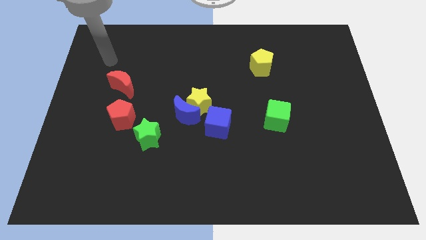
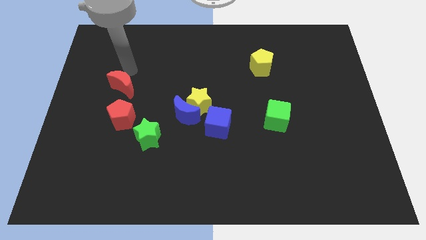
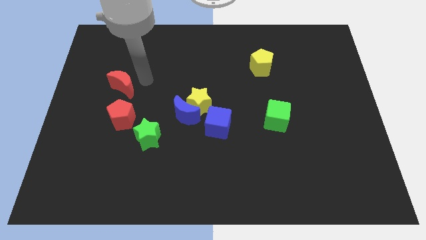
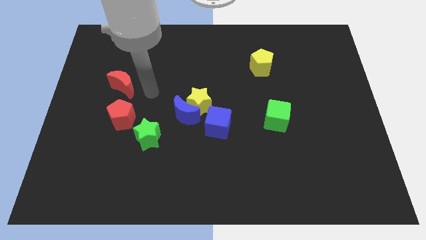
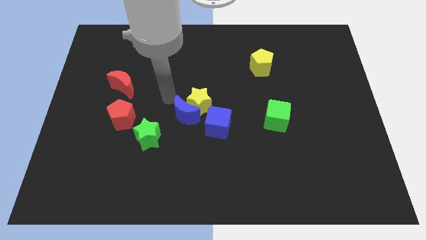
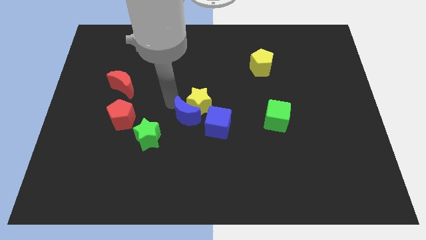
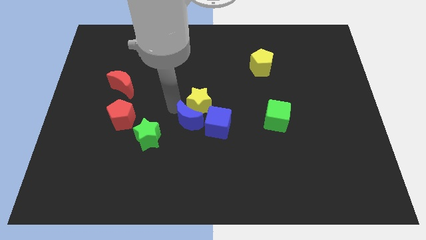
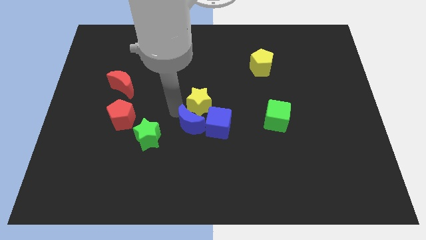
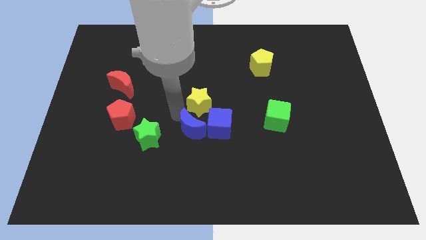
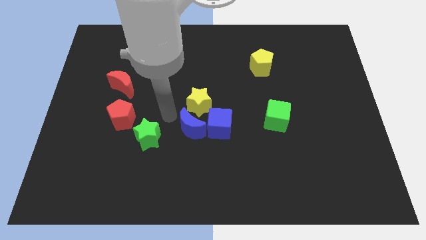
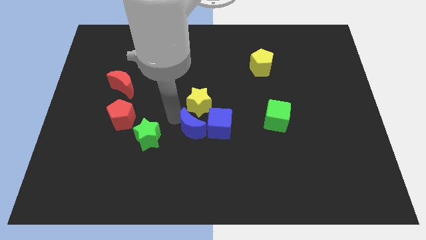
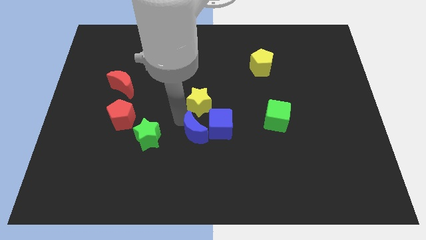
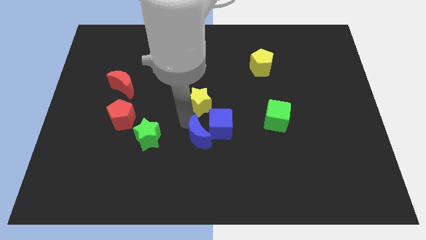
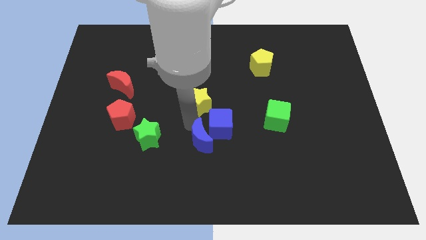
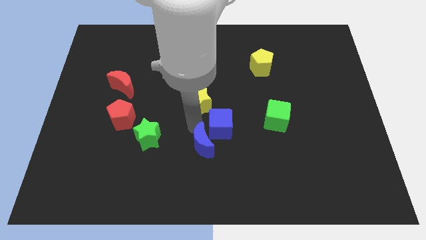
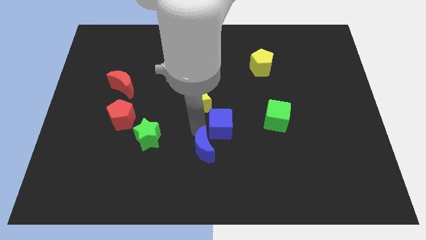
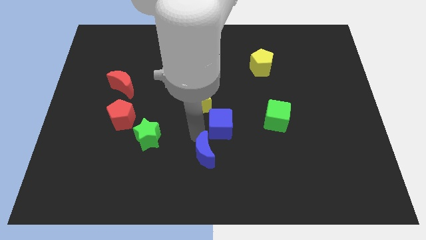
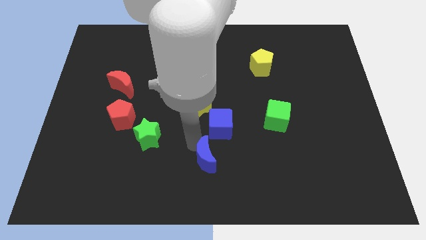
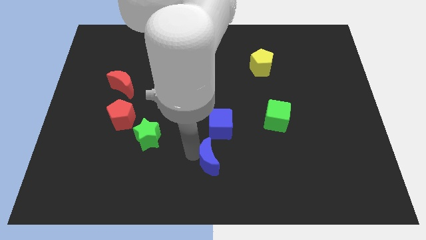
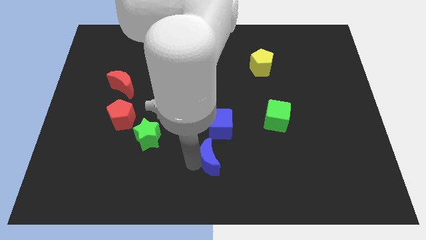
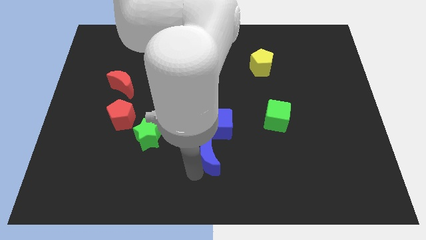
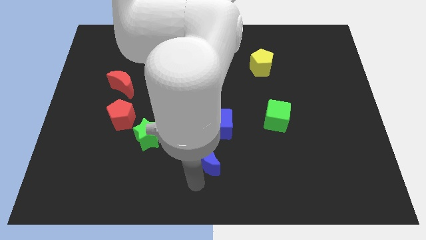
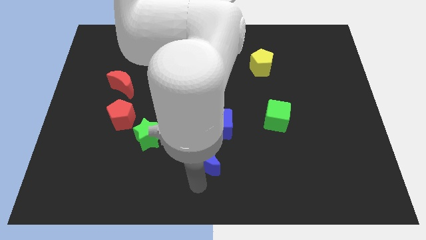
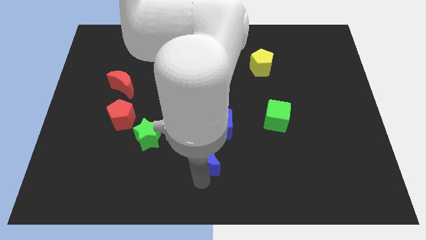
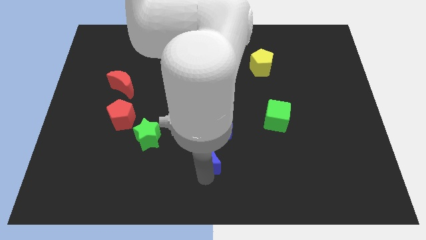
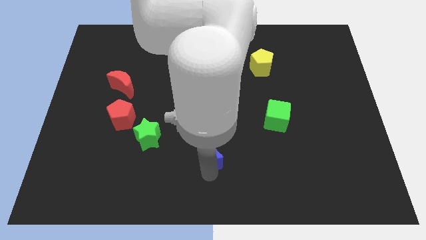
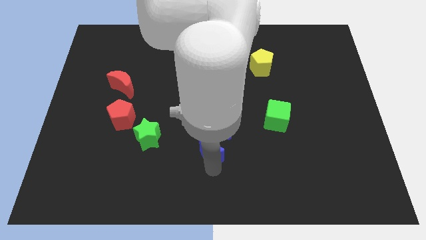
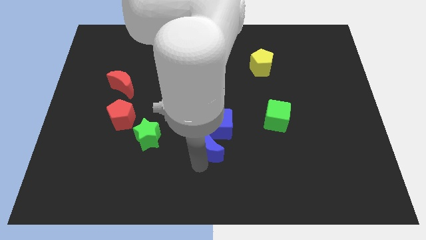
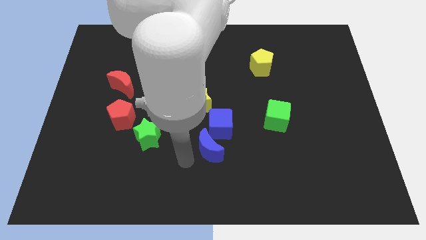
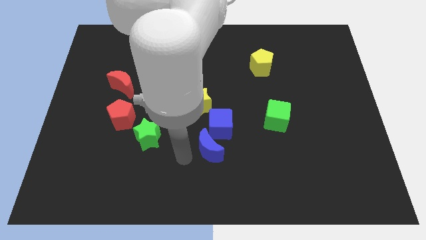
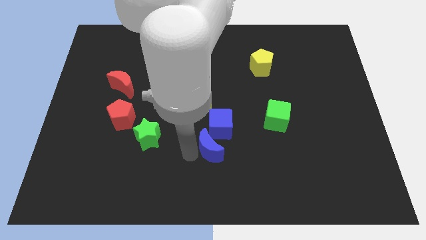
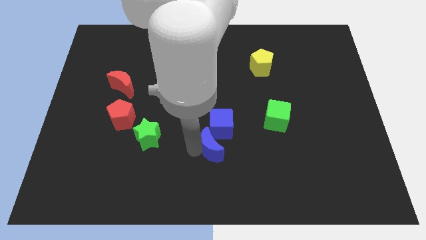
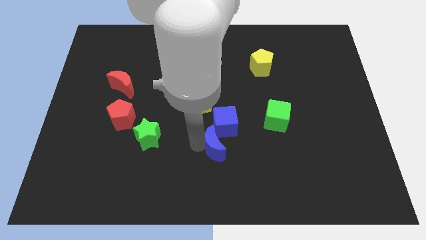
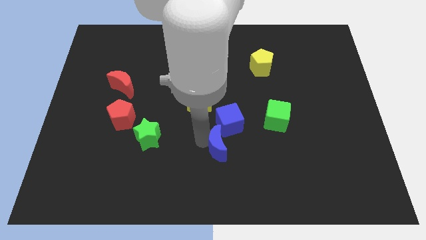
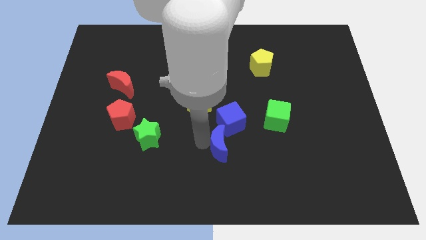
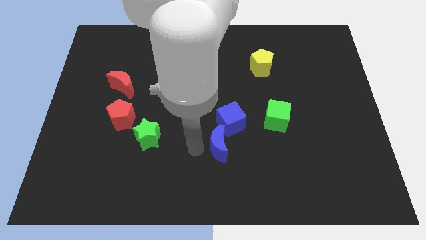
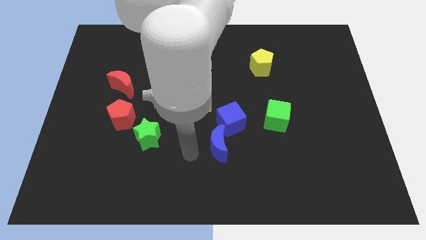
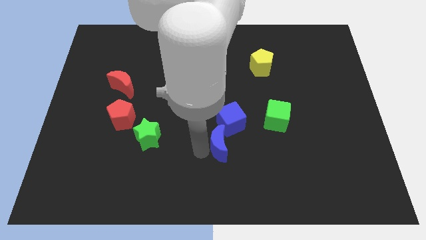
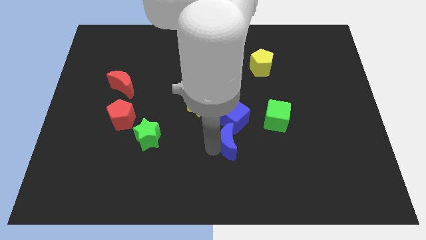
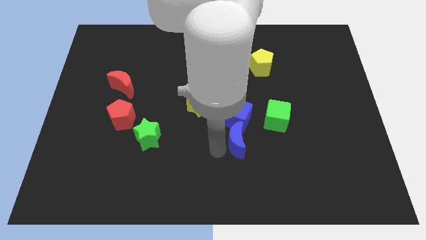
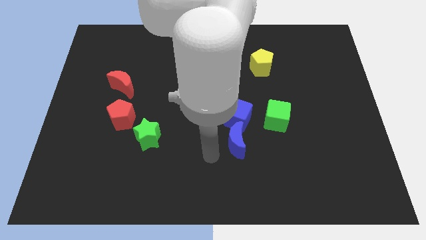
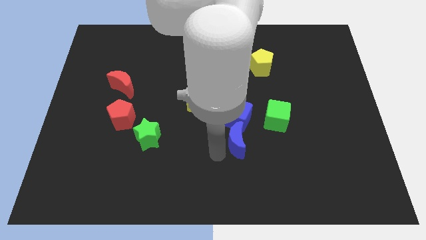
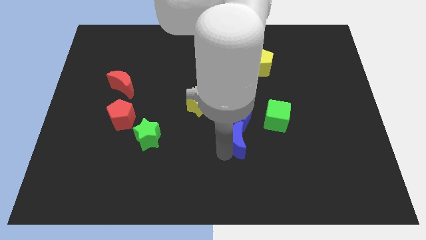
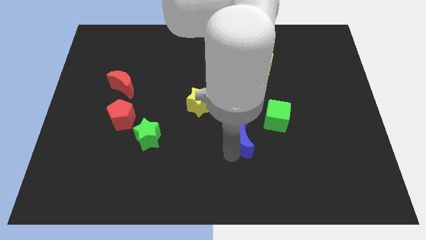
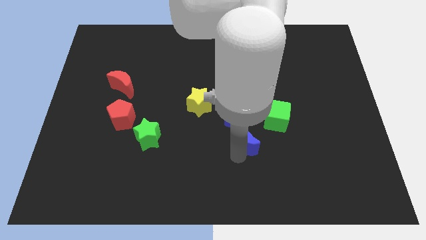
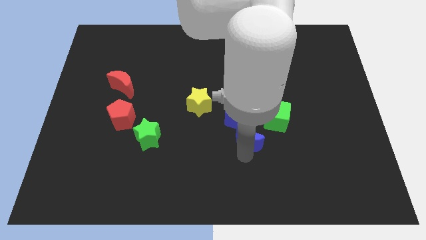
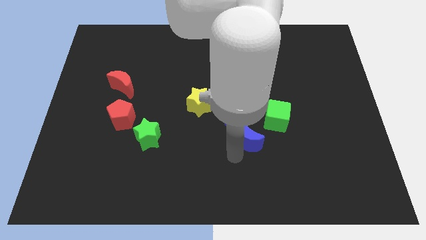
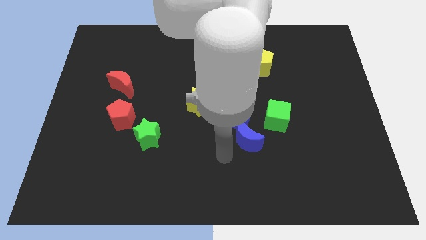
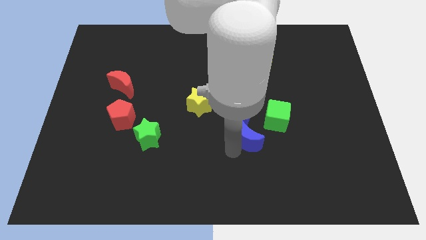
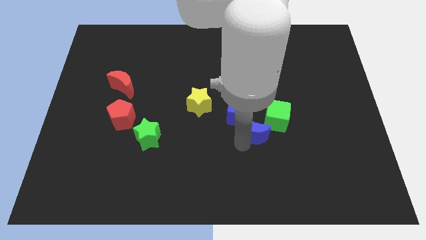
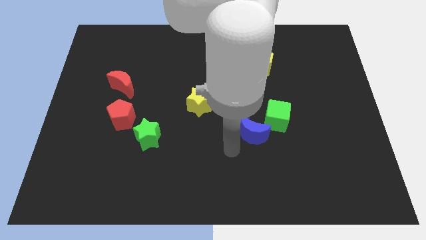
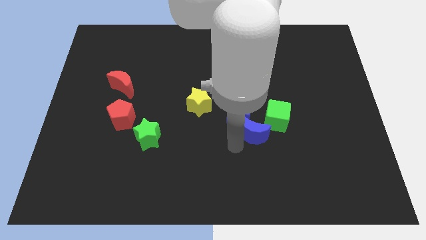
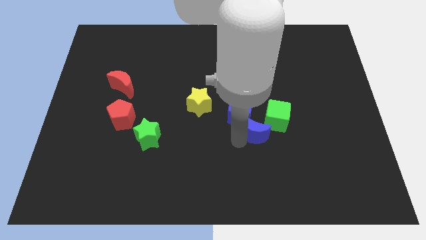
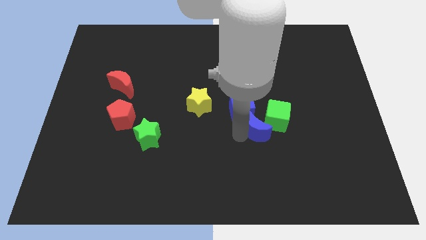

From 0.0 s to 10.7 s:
put the blue moon next to the green cube

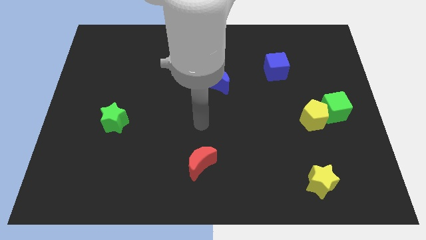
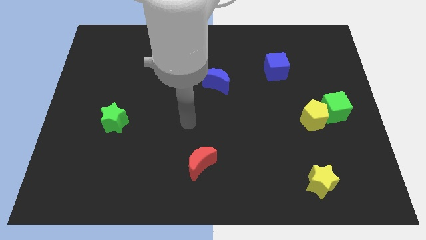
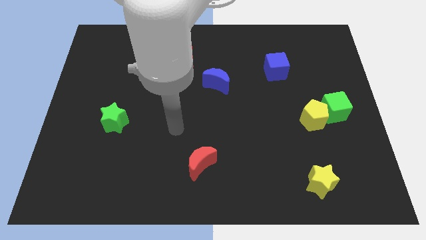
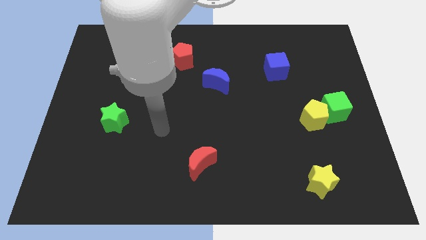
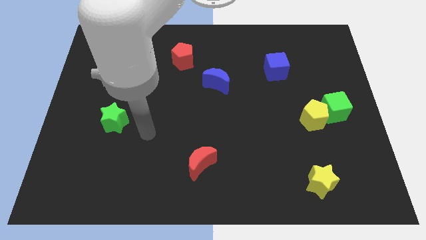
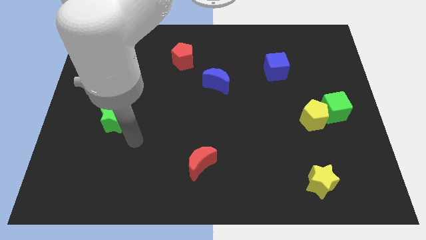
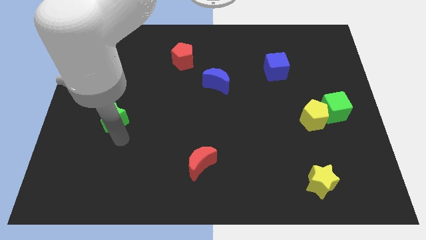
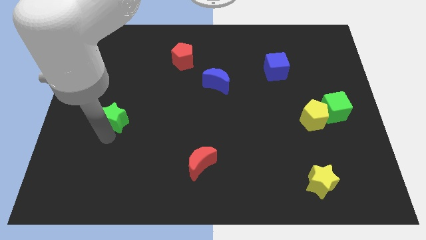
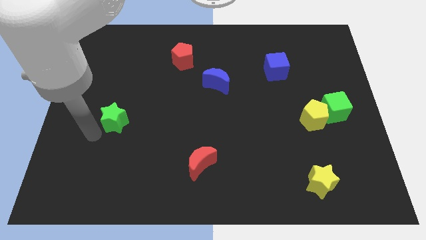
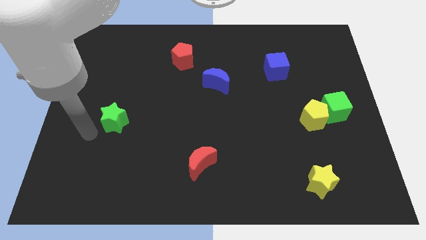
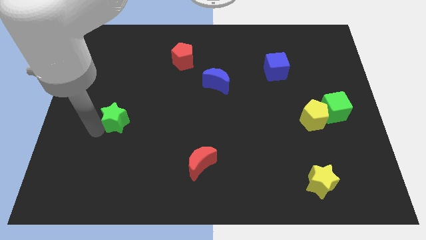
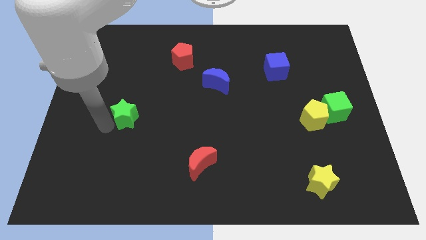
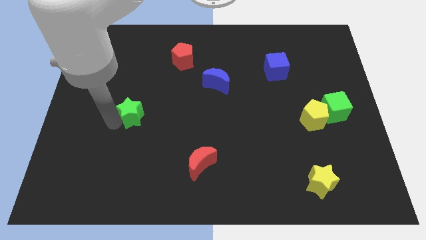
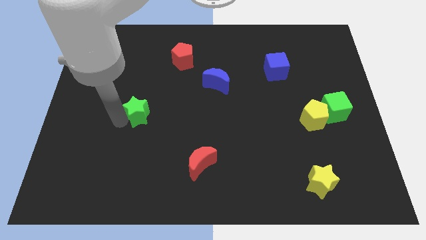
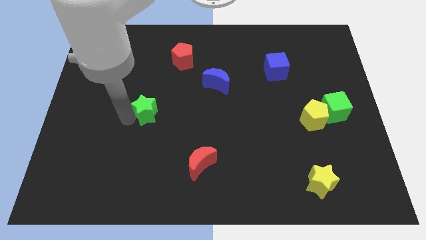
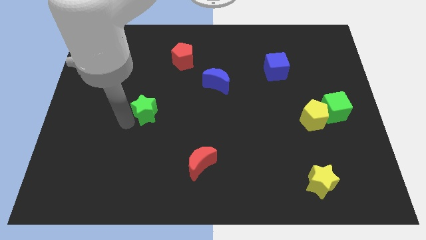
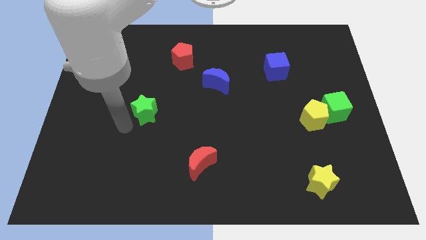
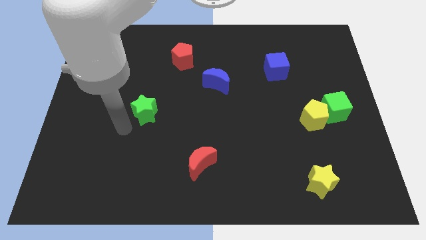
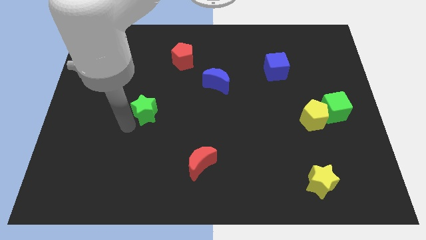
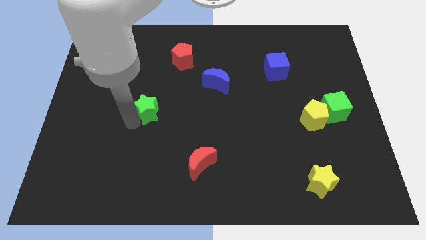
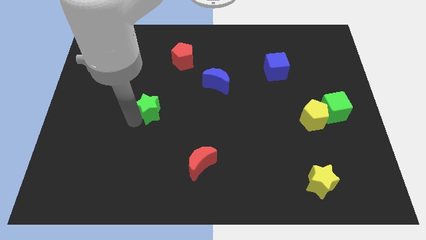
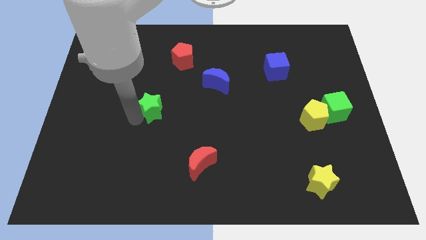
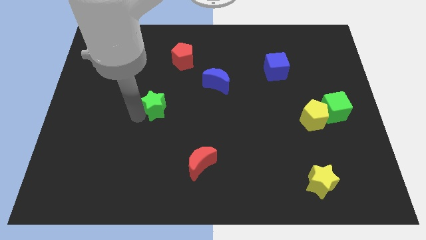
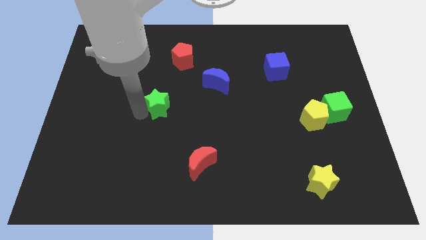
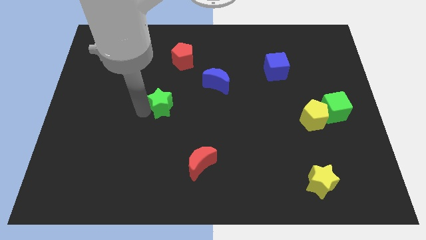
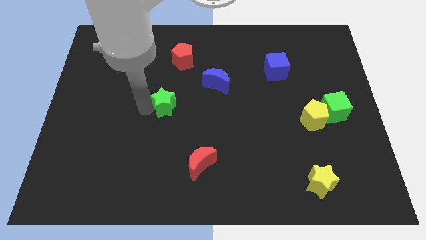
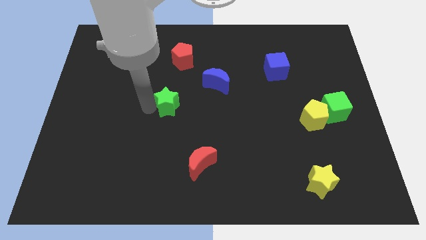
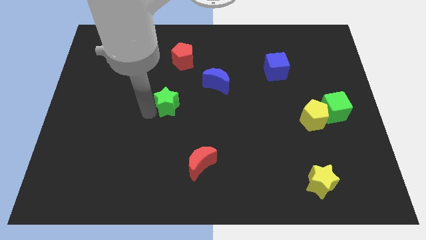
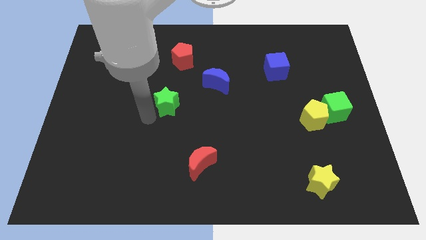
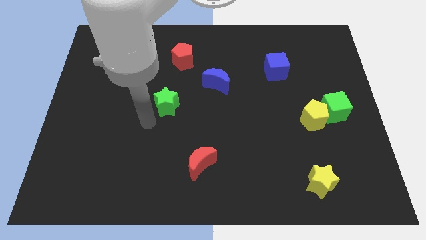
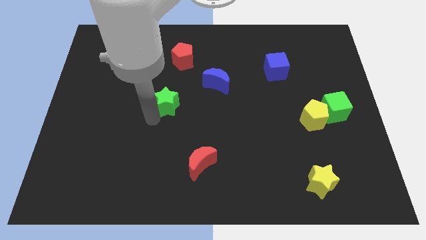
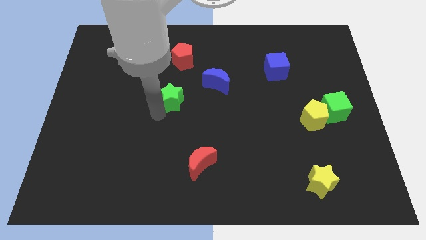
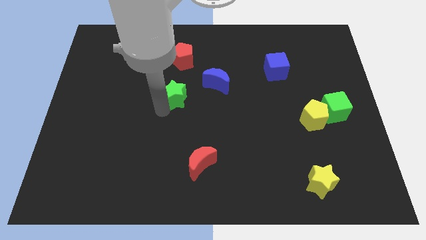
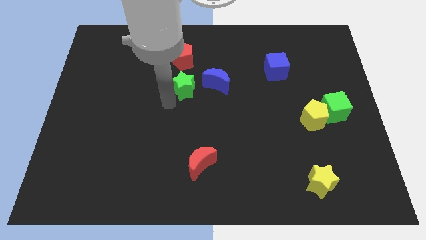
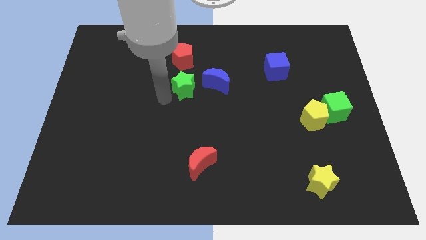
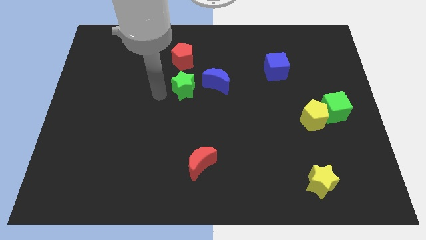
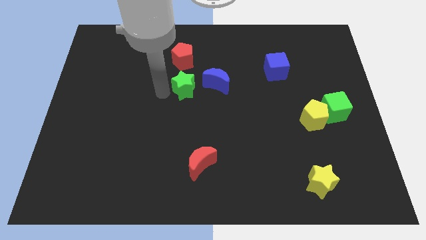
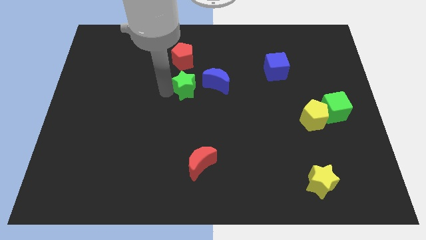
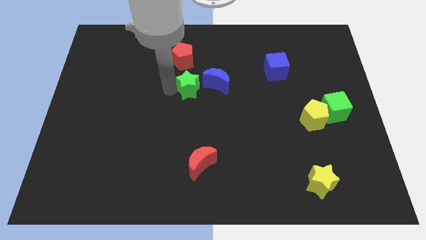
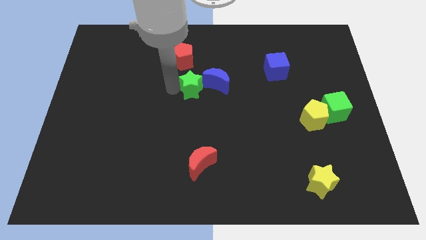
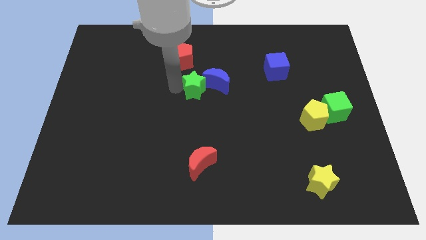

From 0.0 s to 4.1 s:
push the green star next to the blue moon
